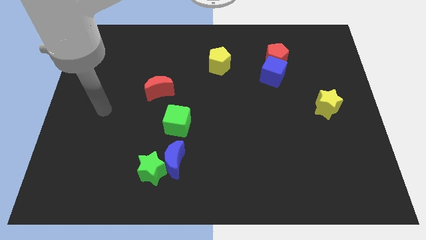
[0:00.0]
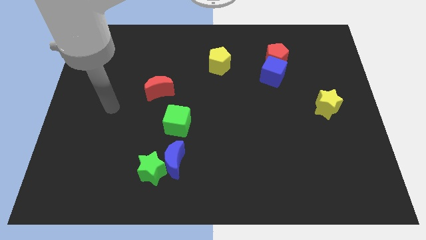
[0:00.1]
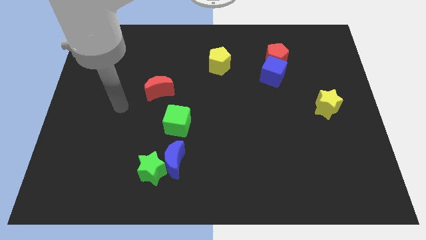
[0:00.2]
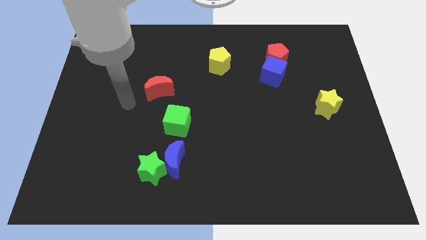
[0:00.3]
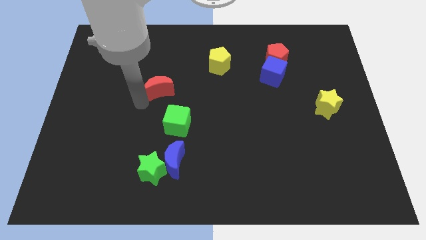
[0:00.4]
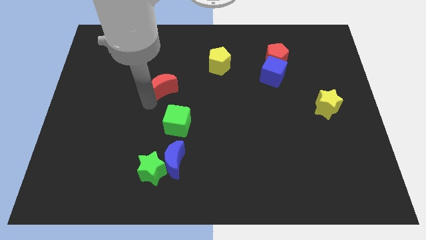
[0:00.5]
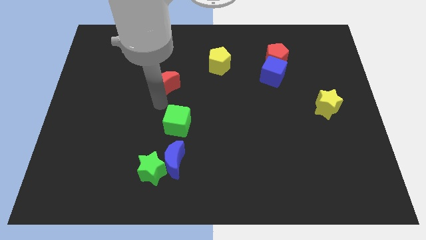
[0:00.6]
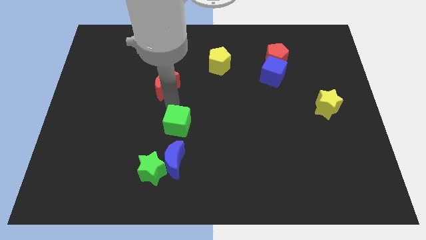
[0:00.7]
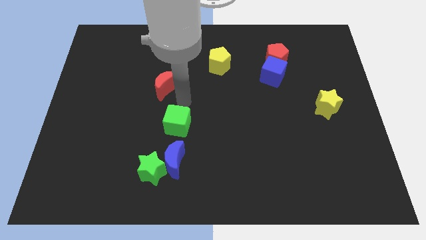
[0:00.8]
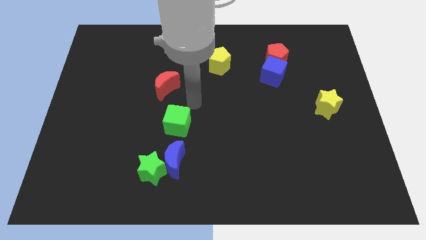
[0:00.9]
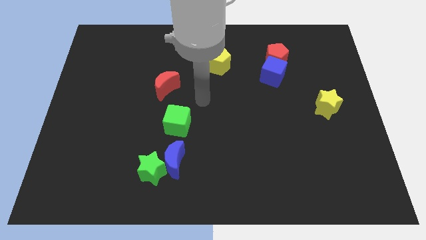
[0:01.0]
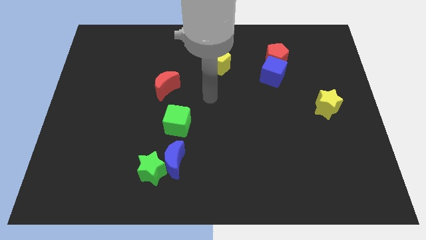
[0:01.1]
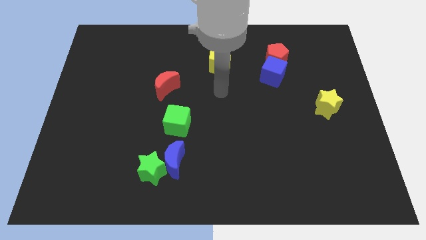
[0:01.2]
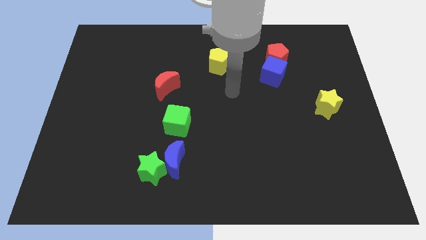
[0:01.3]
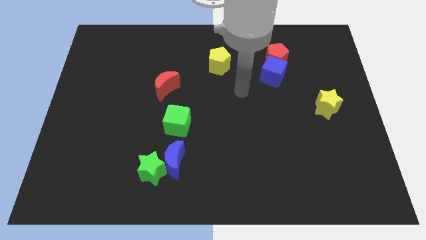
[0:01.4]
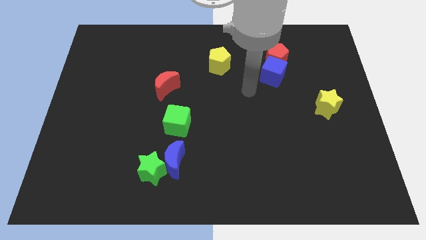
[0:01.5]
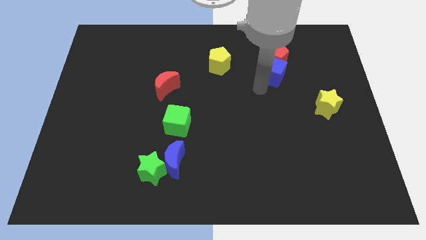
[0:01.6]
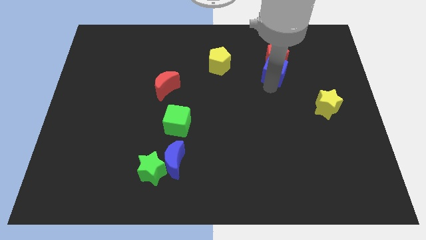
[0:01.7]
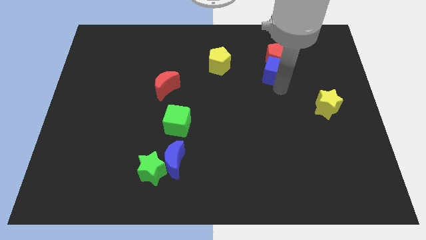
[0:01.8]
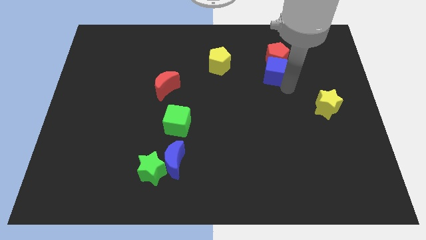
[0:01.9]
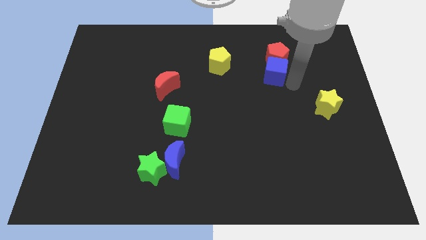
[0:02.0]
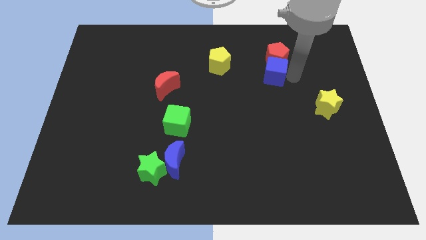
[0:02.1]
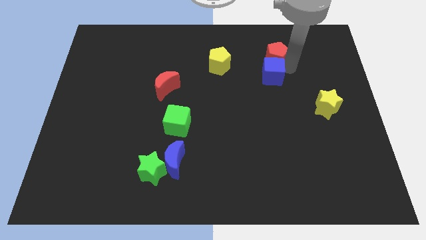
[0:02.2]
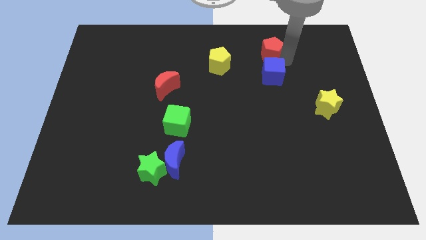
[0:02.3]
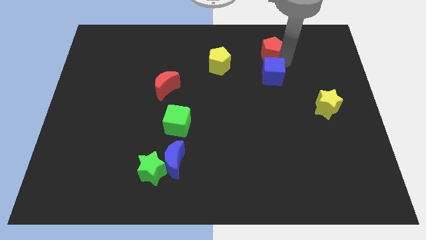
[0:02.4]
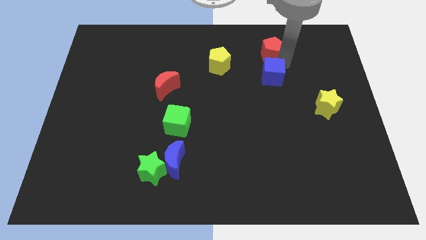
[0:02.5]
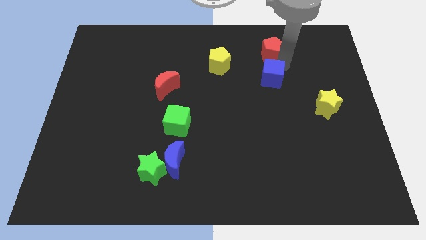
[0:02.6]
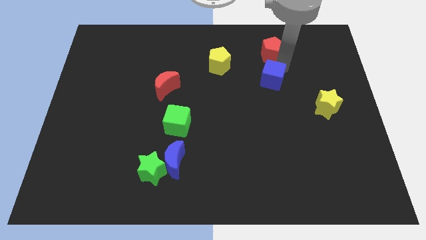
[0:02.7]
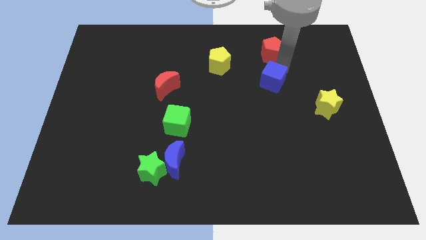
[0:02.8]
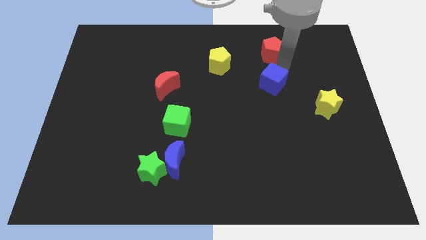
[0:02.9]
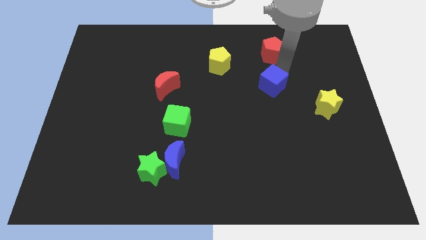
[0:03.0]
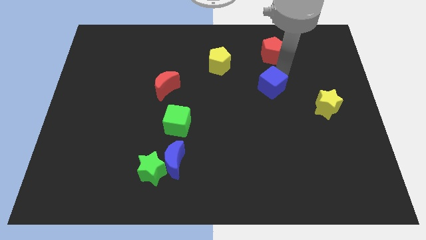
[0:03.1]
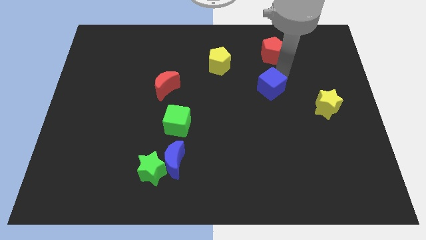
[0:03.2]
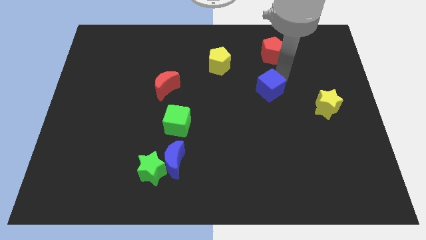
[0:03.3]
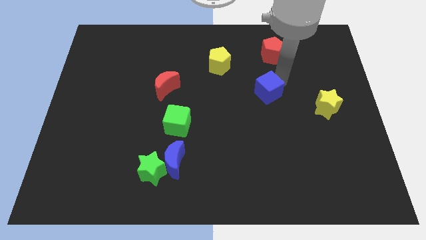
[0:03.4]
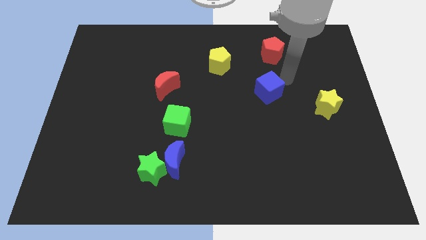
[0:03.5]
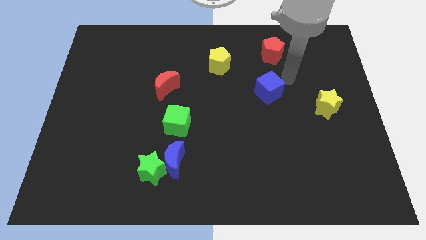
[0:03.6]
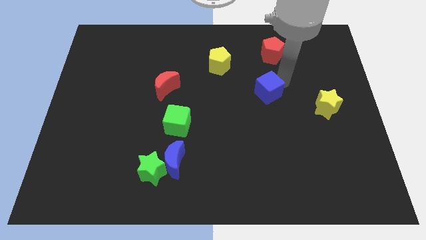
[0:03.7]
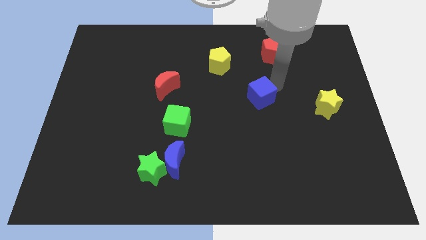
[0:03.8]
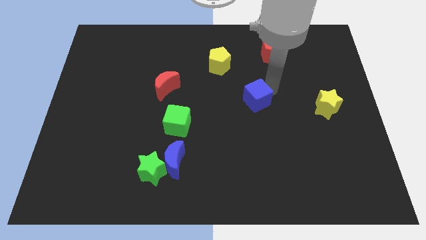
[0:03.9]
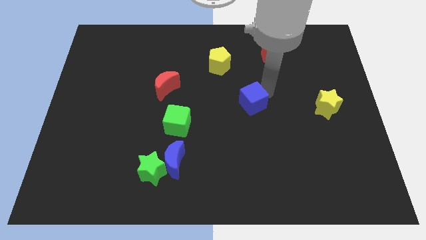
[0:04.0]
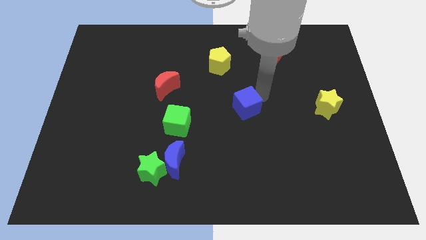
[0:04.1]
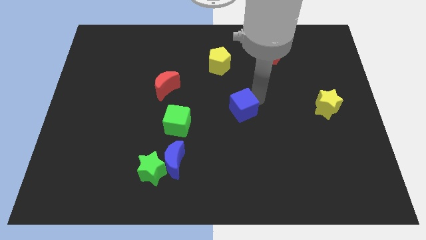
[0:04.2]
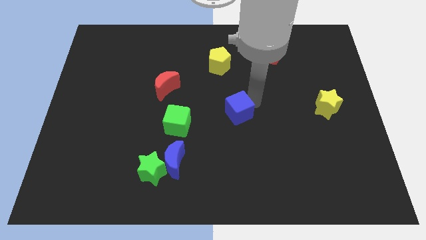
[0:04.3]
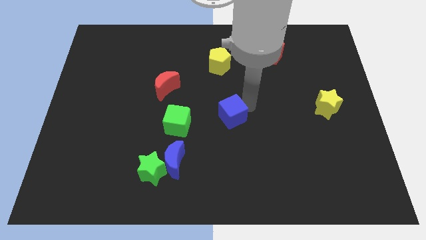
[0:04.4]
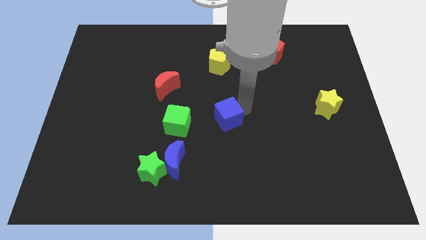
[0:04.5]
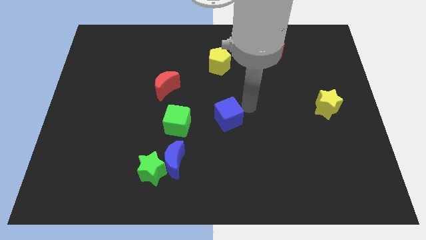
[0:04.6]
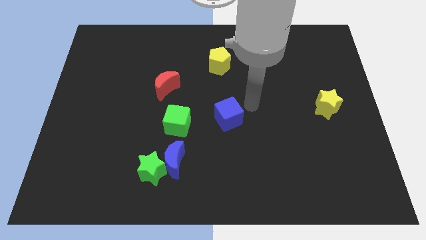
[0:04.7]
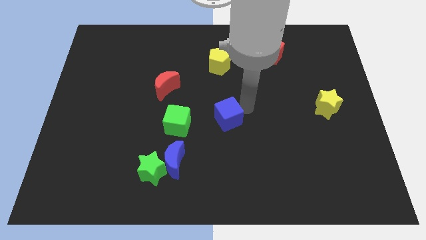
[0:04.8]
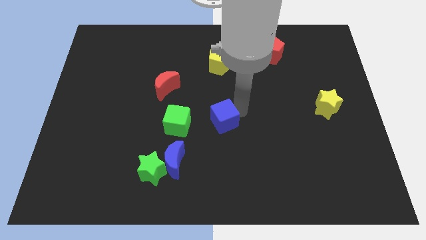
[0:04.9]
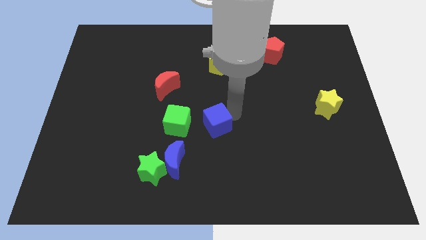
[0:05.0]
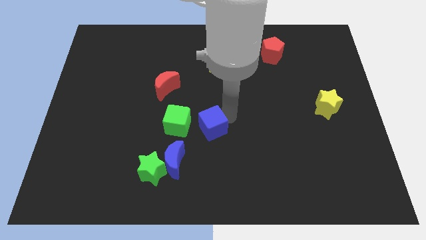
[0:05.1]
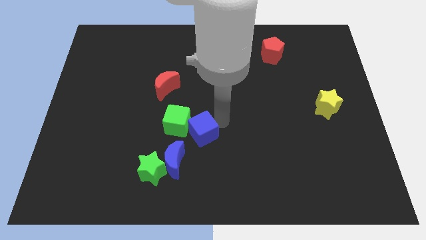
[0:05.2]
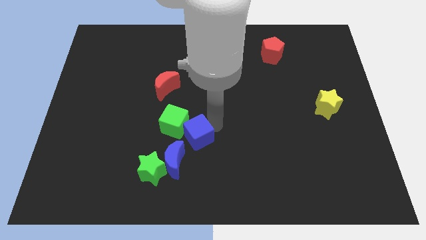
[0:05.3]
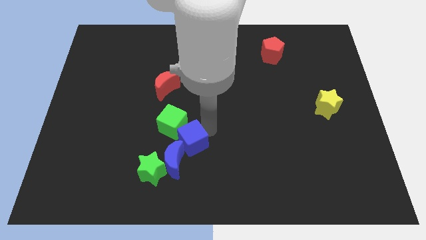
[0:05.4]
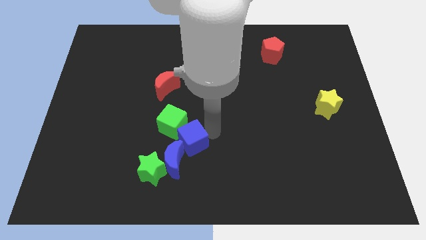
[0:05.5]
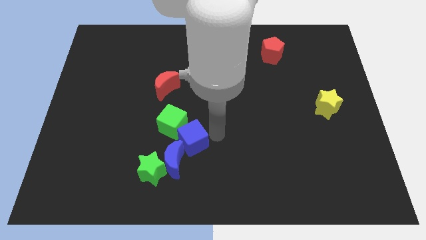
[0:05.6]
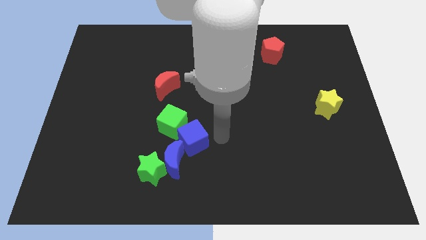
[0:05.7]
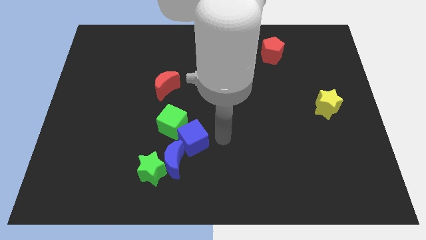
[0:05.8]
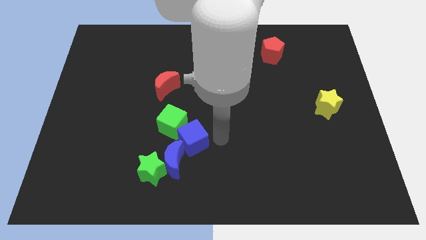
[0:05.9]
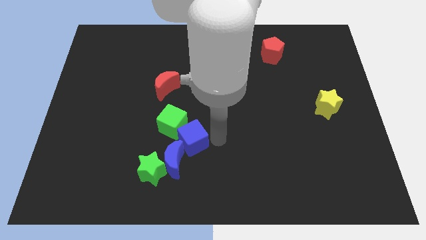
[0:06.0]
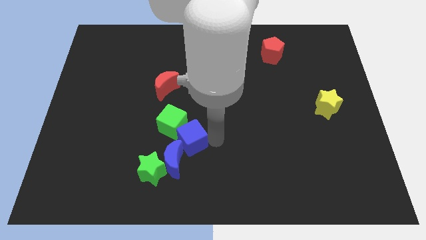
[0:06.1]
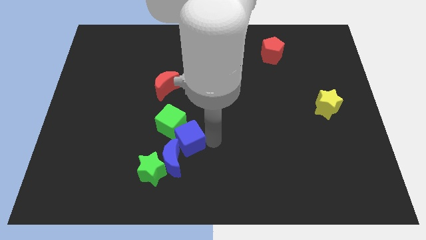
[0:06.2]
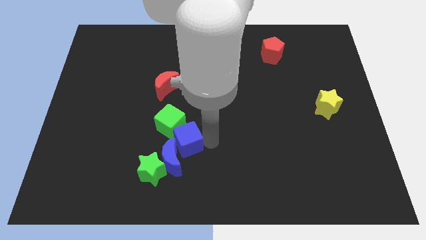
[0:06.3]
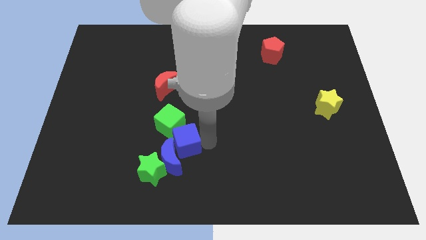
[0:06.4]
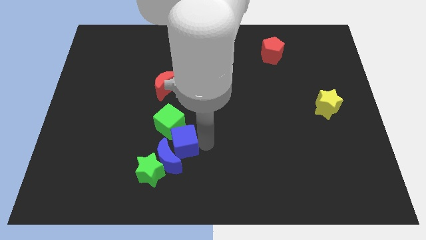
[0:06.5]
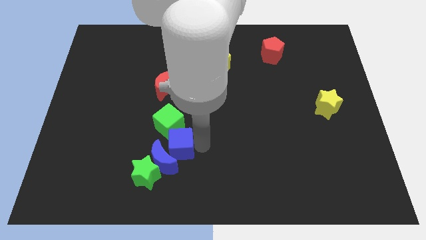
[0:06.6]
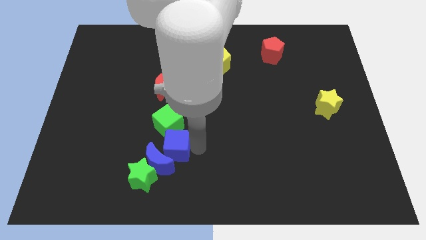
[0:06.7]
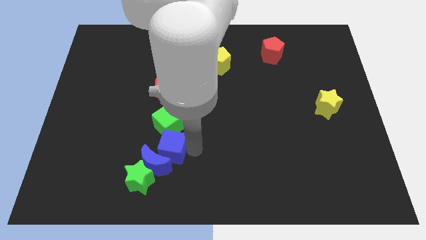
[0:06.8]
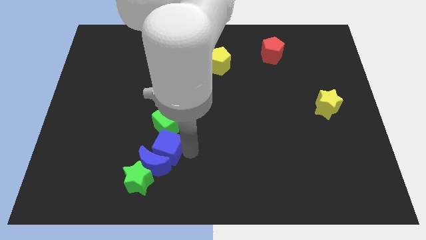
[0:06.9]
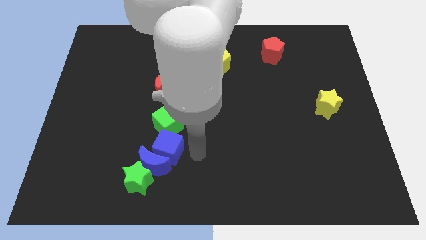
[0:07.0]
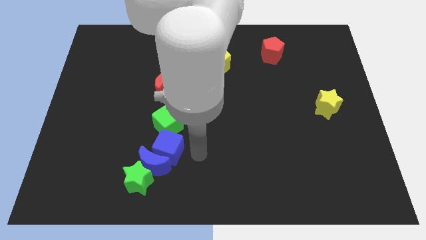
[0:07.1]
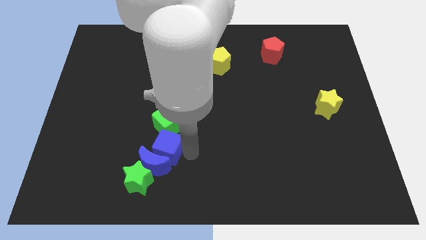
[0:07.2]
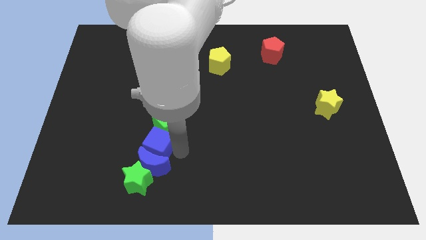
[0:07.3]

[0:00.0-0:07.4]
move the blue cube to the top left side of the blue moon
